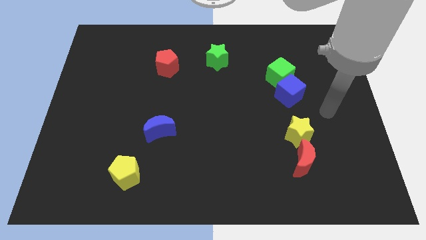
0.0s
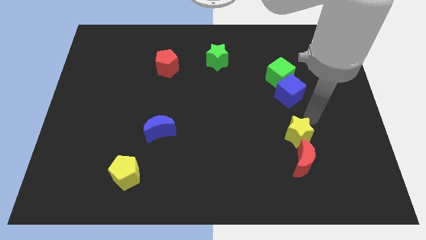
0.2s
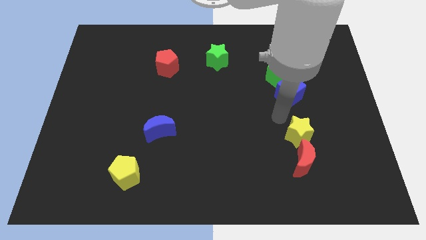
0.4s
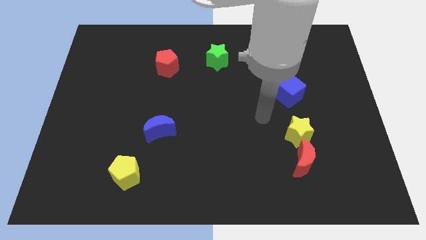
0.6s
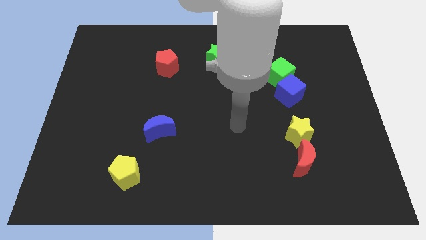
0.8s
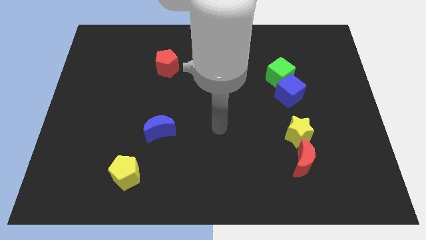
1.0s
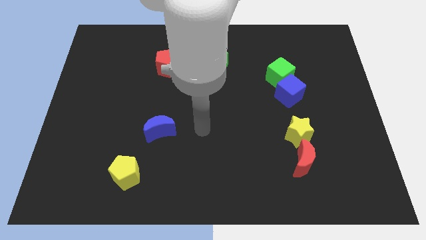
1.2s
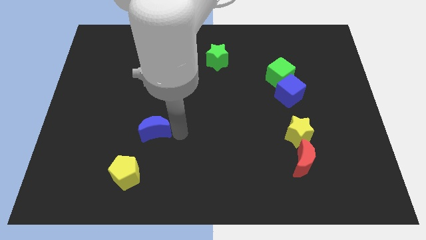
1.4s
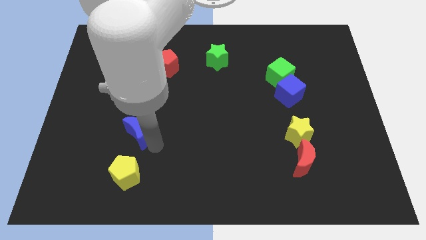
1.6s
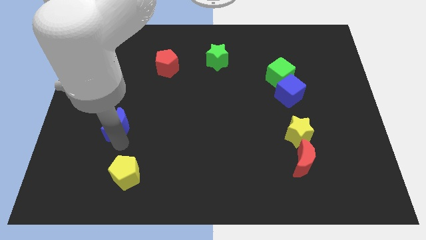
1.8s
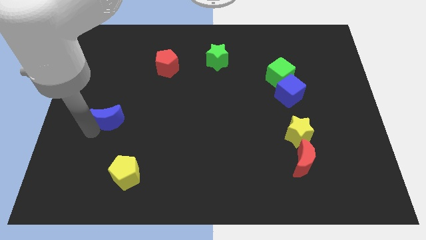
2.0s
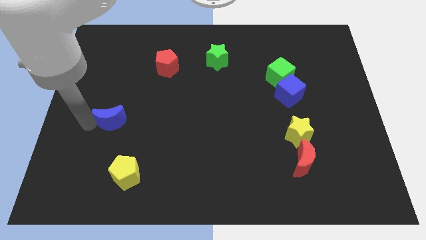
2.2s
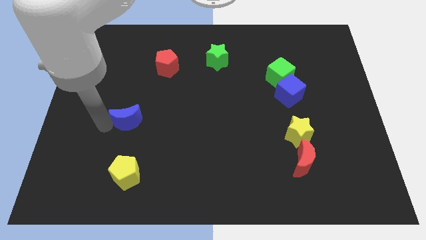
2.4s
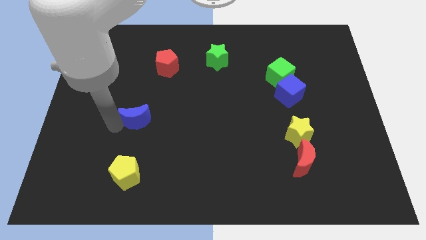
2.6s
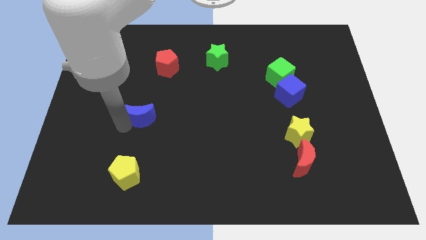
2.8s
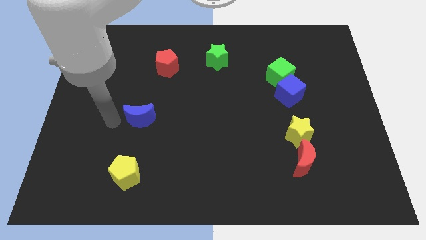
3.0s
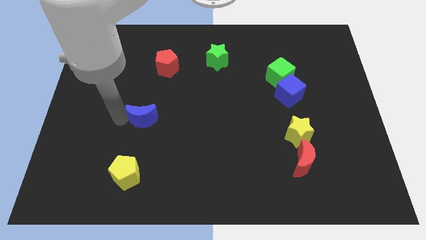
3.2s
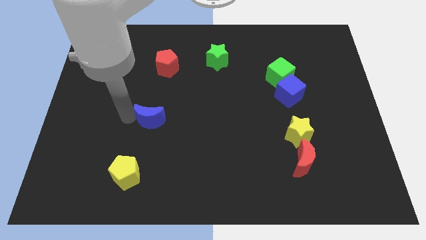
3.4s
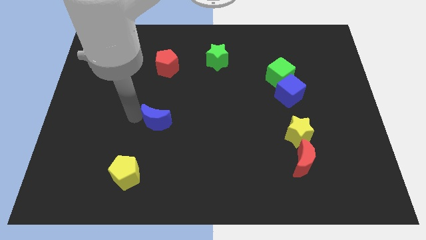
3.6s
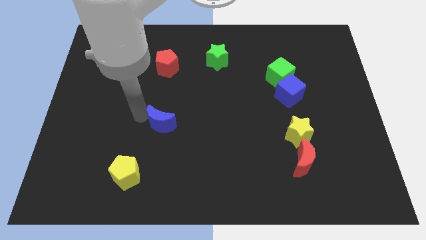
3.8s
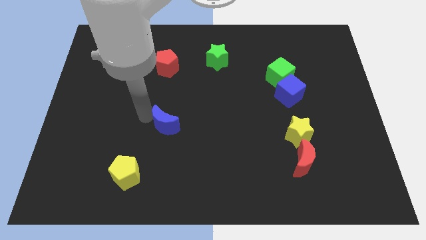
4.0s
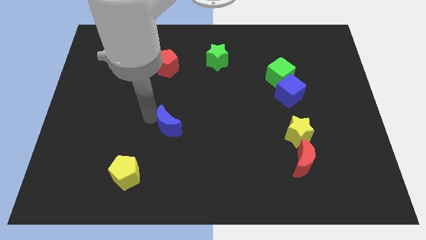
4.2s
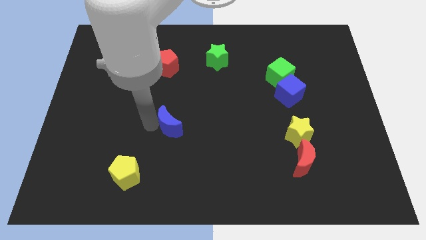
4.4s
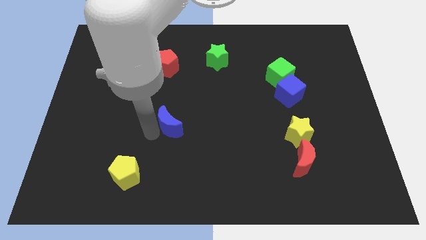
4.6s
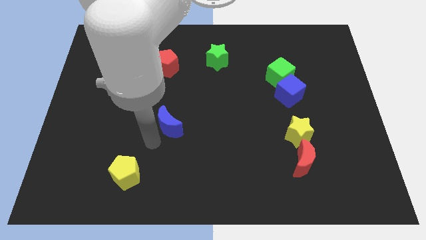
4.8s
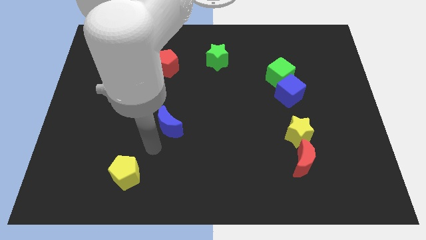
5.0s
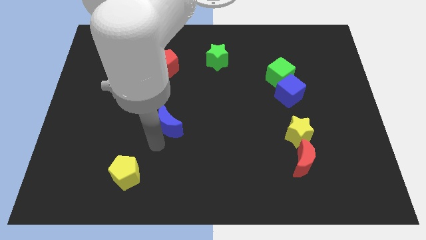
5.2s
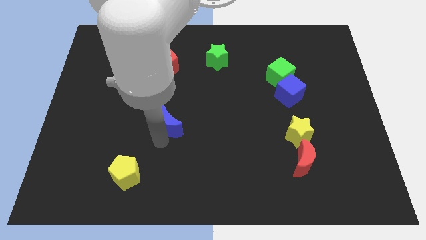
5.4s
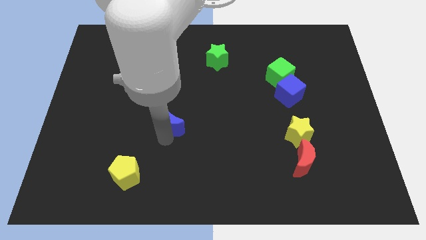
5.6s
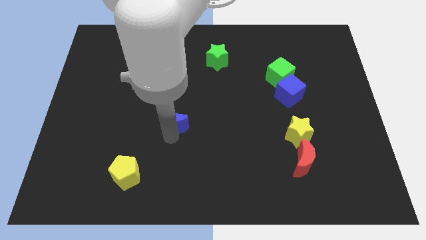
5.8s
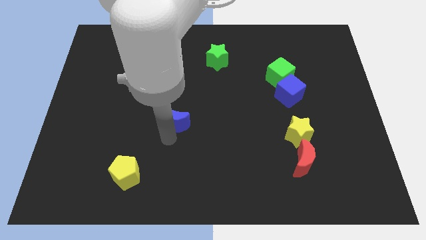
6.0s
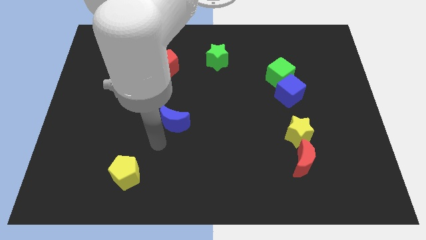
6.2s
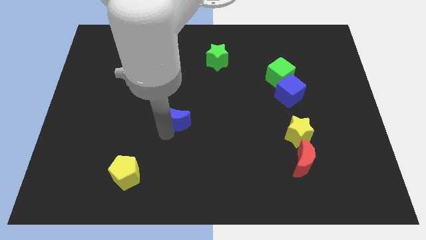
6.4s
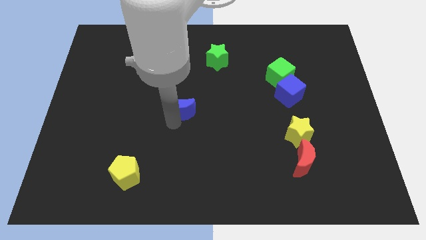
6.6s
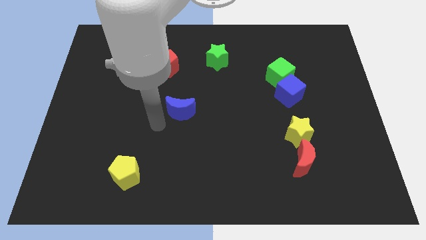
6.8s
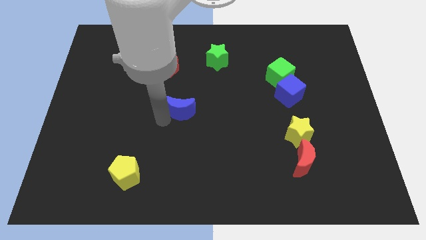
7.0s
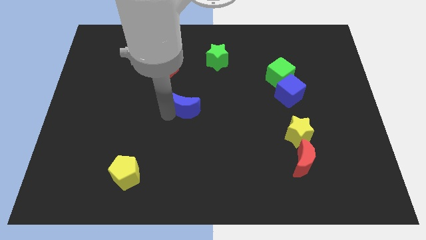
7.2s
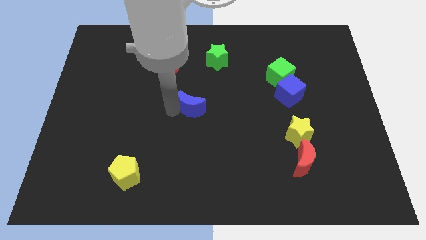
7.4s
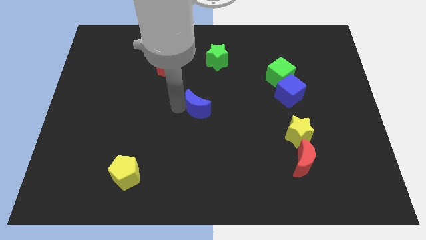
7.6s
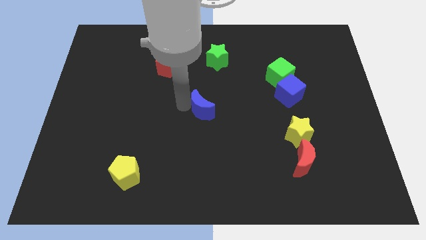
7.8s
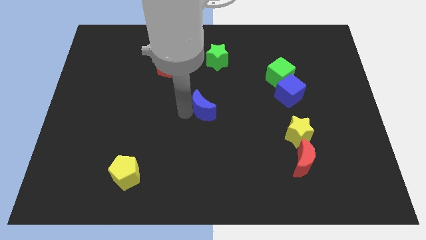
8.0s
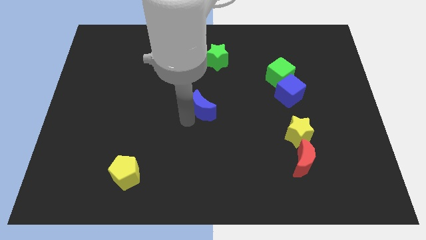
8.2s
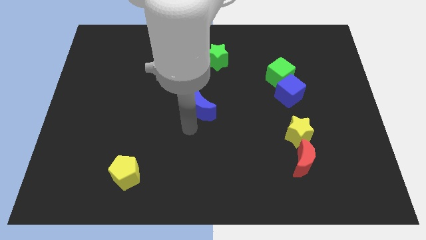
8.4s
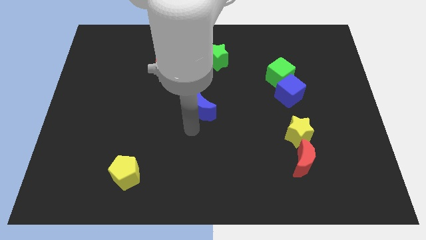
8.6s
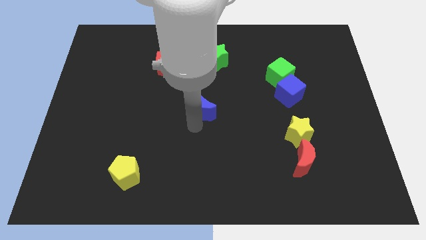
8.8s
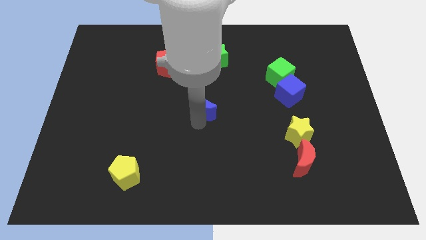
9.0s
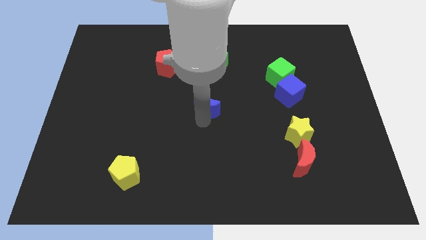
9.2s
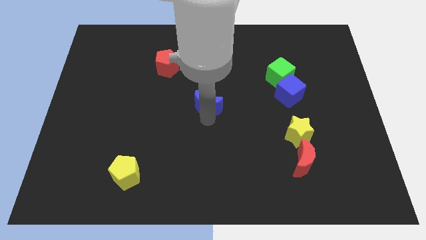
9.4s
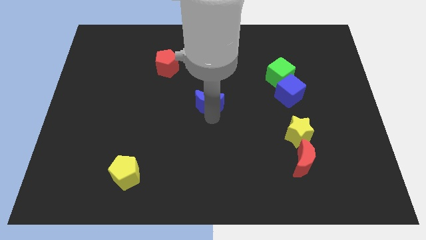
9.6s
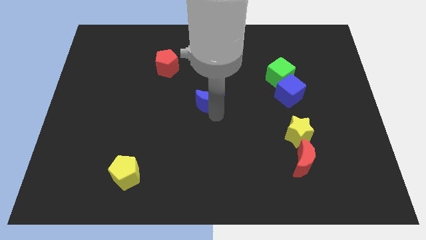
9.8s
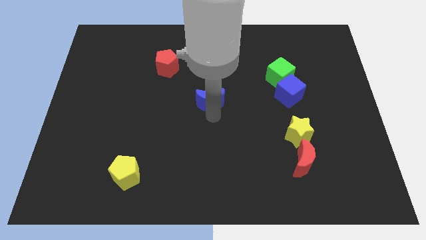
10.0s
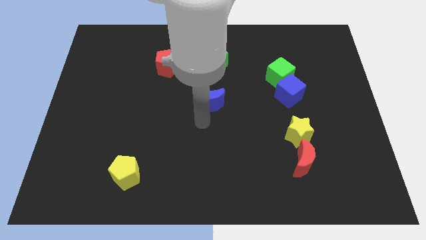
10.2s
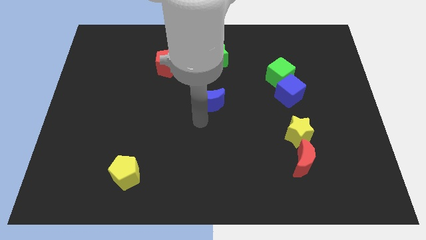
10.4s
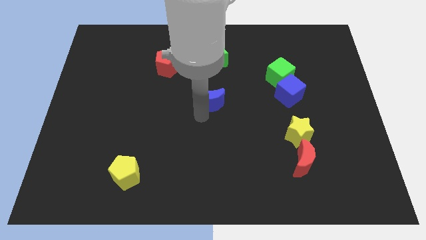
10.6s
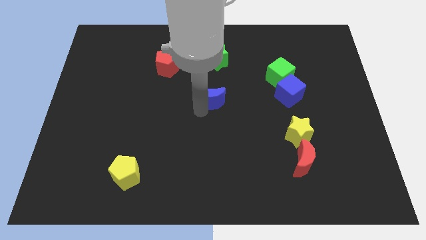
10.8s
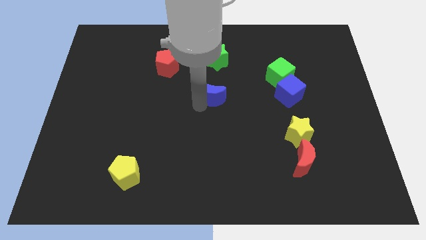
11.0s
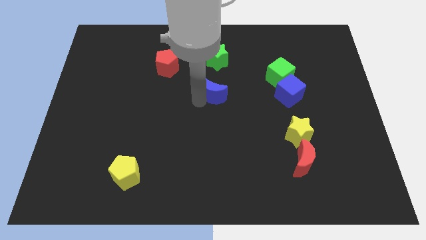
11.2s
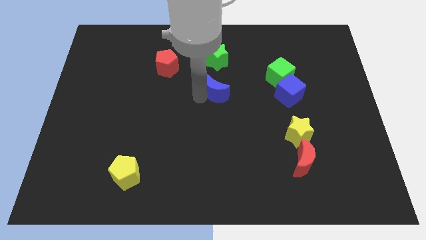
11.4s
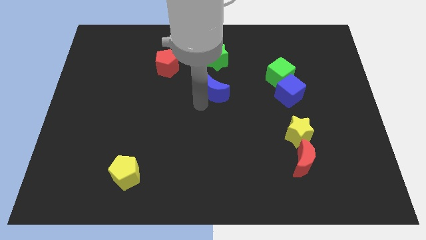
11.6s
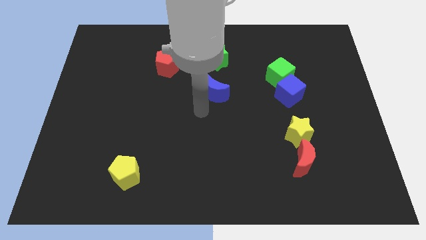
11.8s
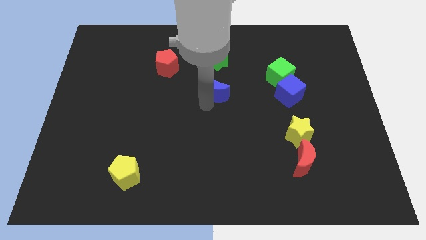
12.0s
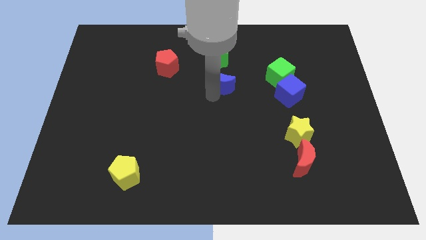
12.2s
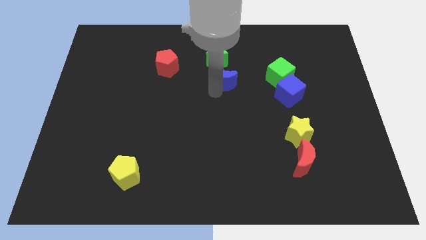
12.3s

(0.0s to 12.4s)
slide the blue moon upwards and to the right diagonally

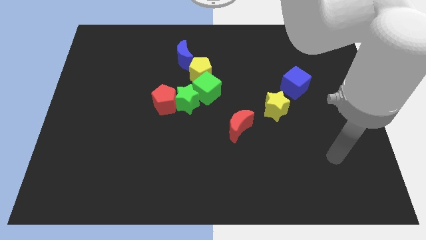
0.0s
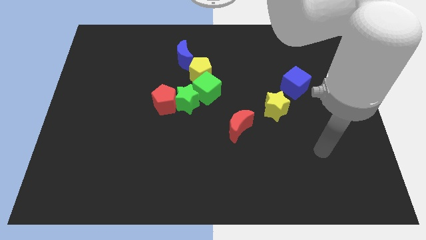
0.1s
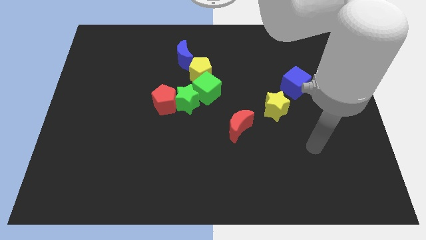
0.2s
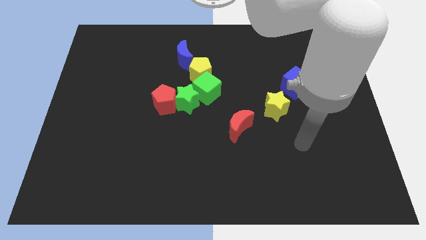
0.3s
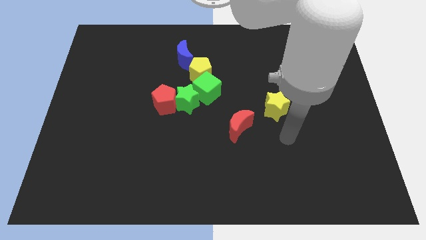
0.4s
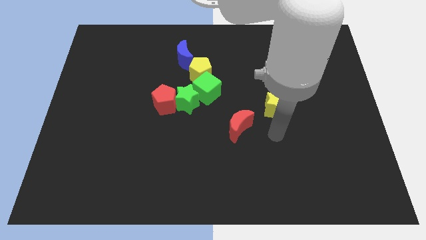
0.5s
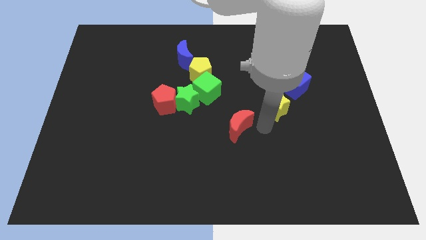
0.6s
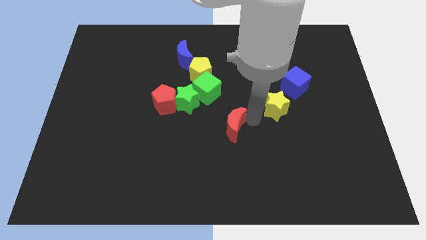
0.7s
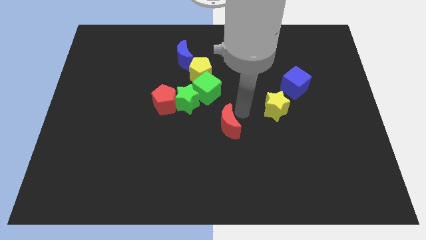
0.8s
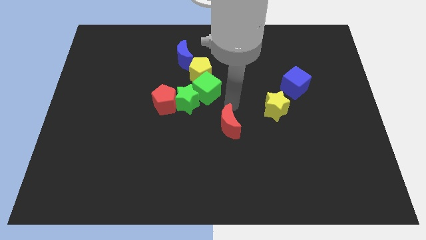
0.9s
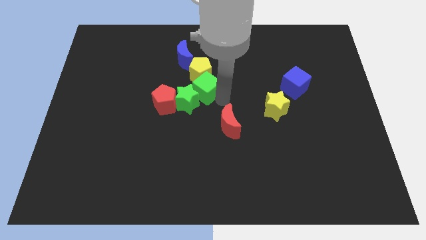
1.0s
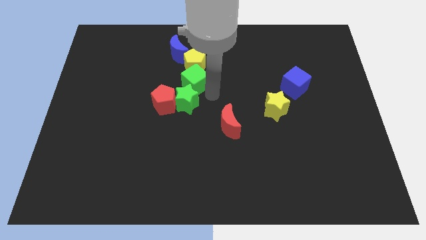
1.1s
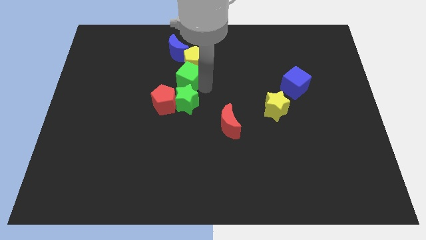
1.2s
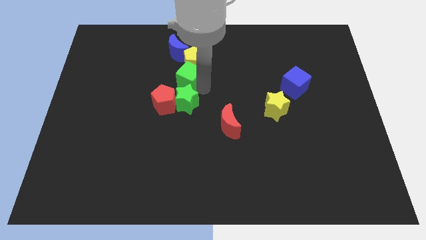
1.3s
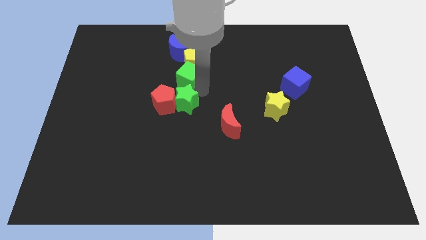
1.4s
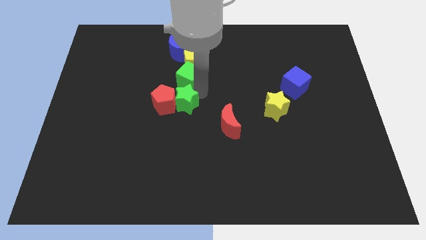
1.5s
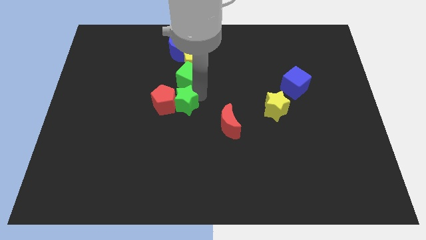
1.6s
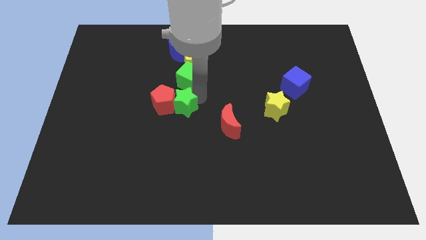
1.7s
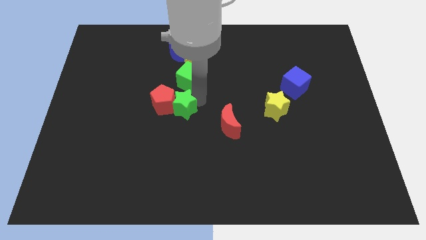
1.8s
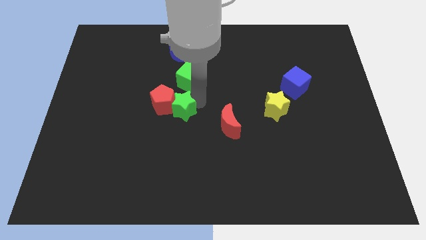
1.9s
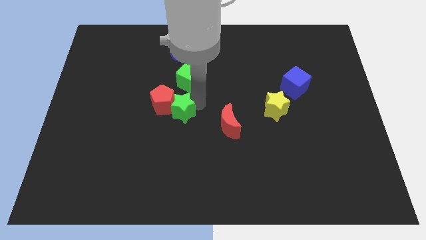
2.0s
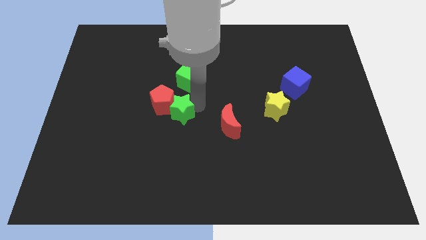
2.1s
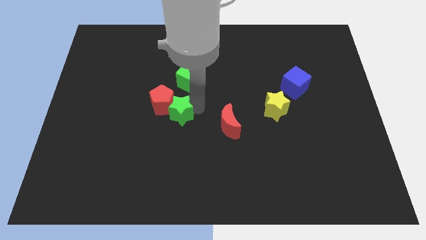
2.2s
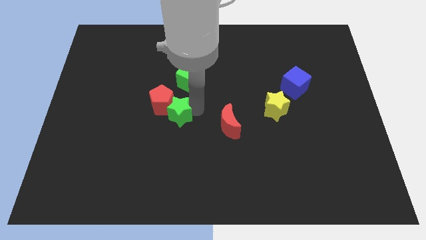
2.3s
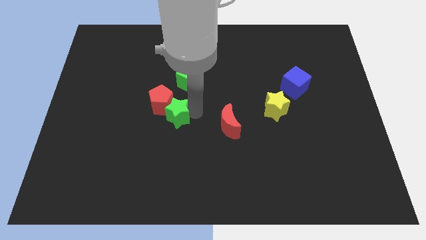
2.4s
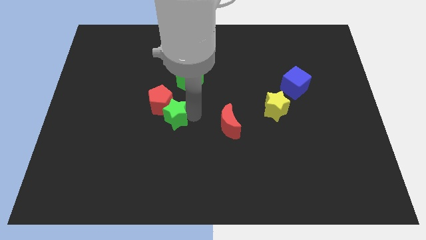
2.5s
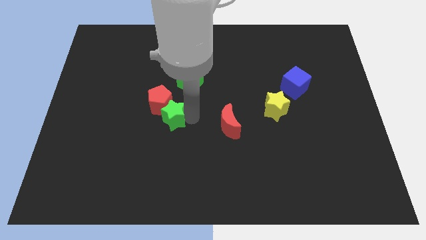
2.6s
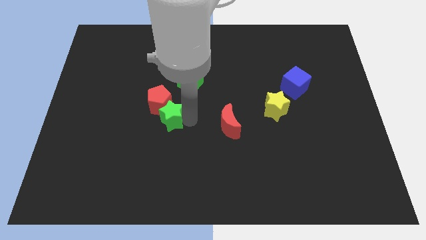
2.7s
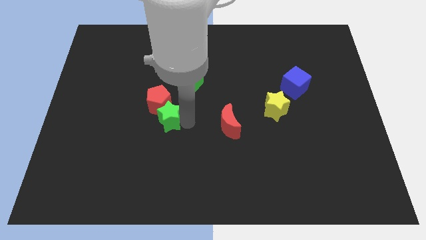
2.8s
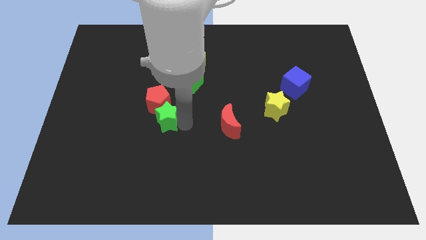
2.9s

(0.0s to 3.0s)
push the green star downwards and then to the left slightly
